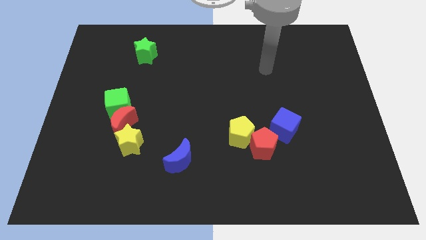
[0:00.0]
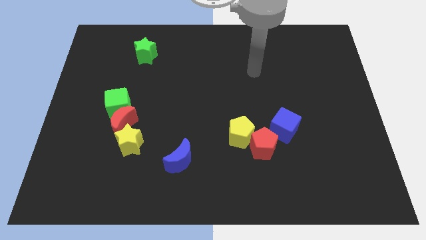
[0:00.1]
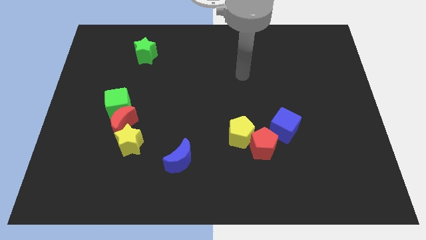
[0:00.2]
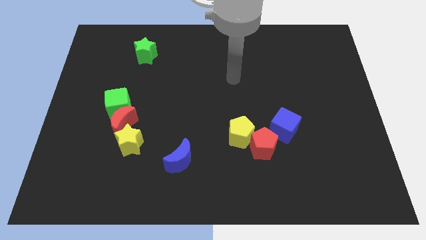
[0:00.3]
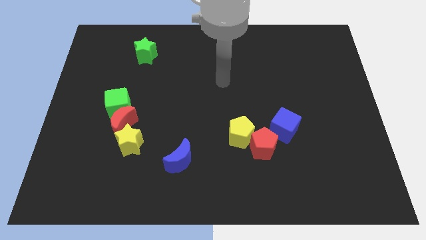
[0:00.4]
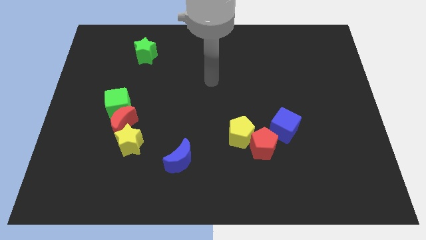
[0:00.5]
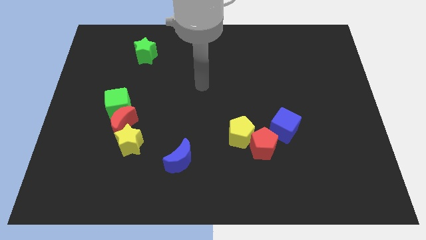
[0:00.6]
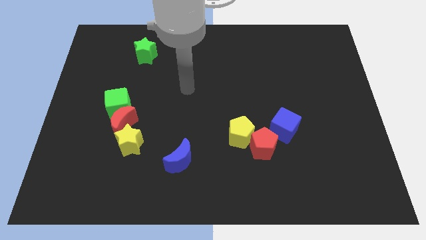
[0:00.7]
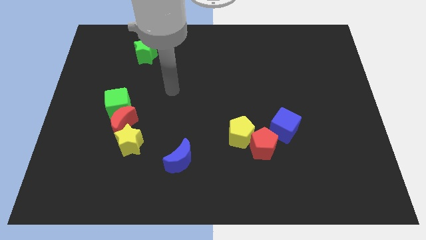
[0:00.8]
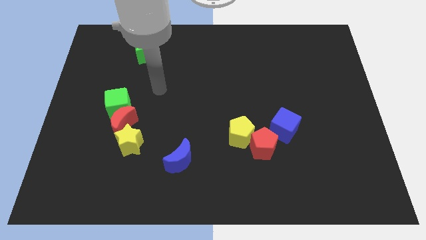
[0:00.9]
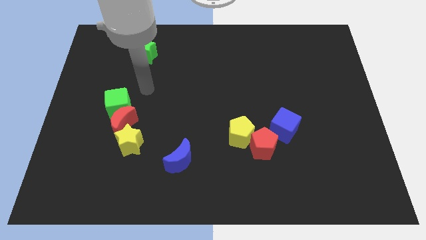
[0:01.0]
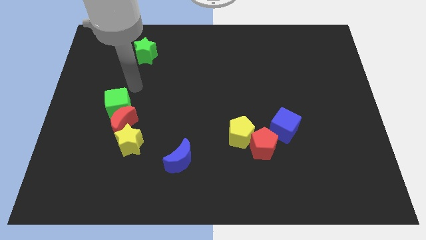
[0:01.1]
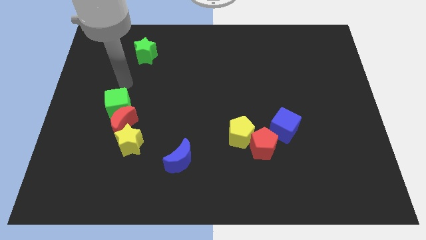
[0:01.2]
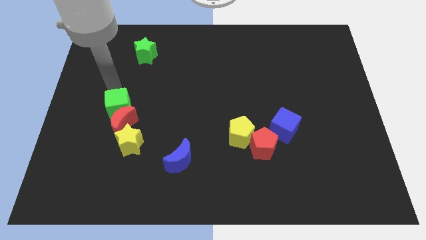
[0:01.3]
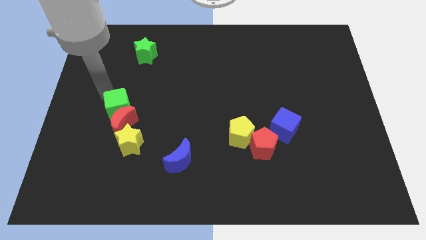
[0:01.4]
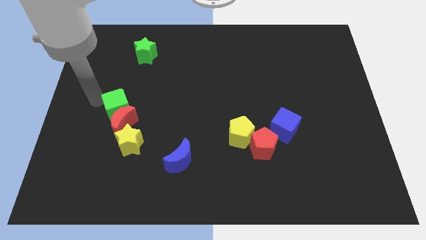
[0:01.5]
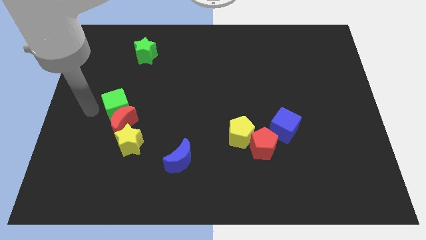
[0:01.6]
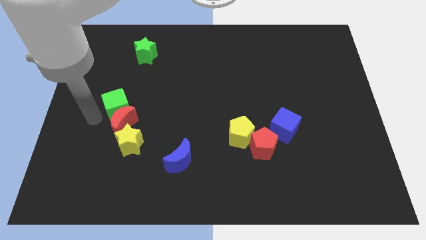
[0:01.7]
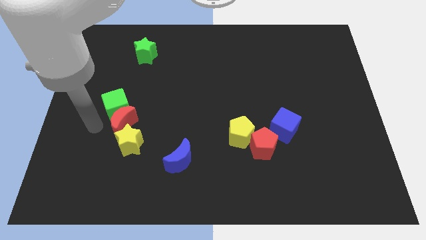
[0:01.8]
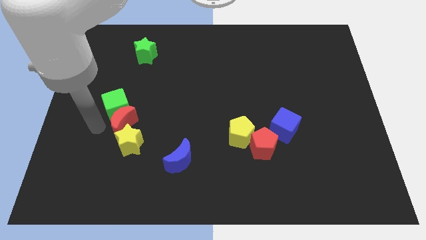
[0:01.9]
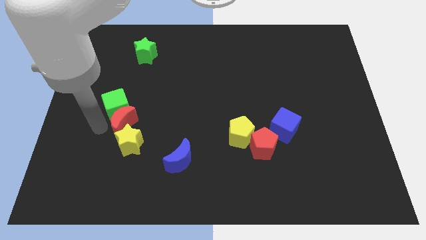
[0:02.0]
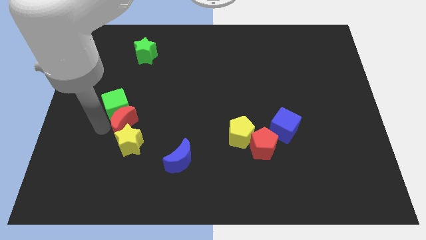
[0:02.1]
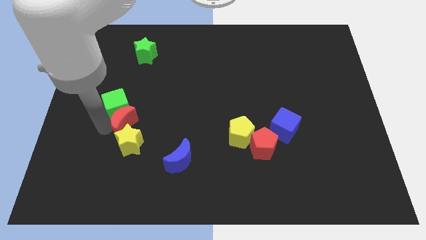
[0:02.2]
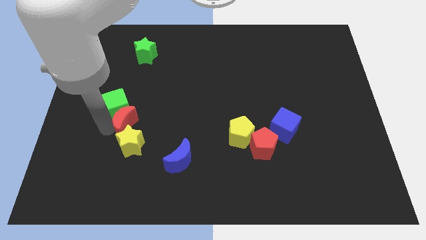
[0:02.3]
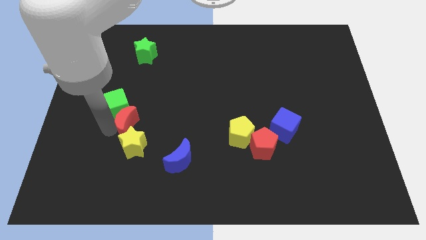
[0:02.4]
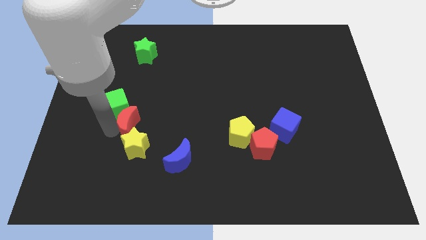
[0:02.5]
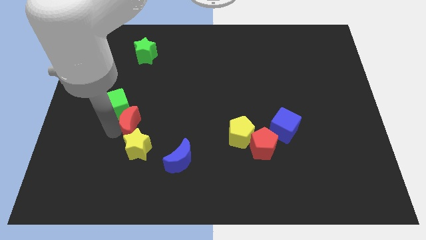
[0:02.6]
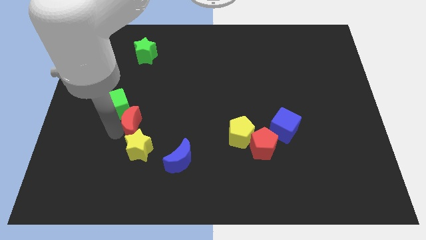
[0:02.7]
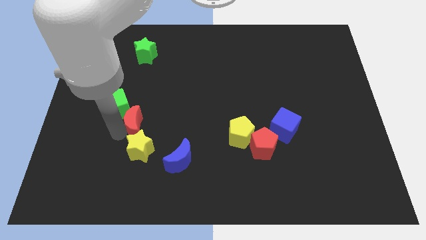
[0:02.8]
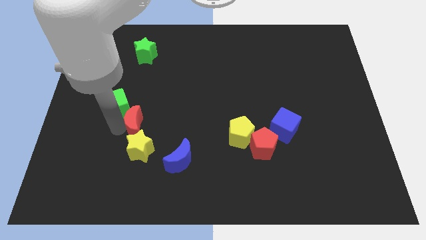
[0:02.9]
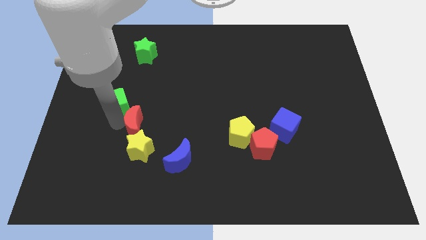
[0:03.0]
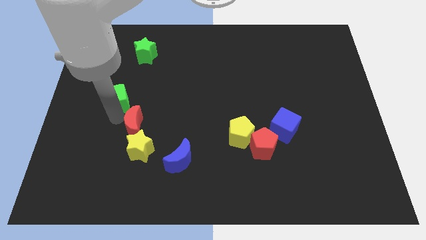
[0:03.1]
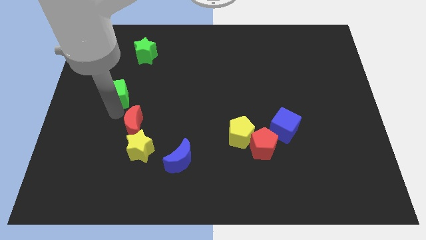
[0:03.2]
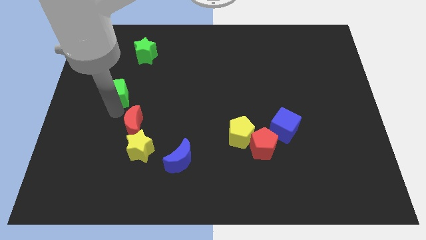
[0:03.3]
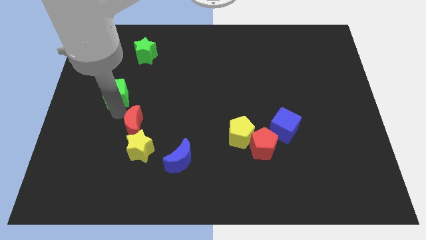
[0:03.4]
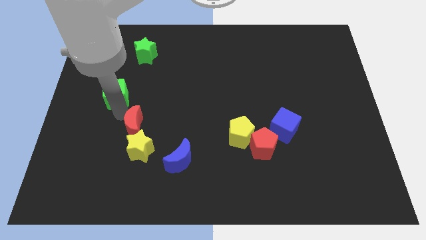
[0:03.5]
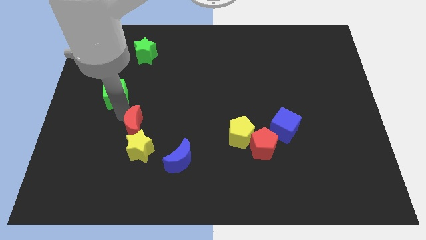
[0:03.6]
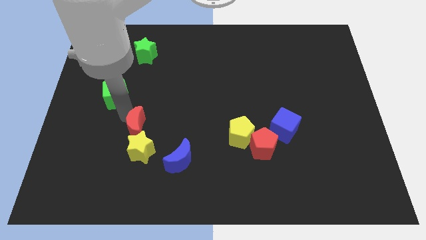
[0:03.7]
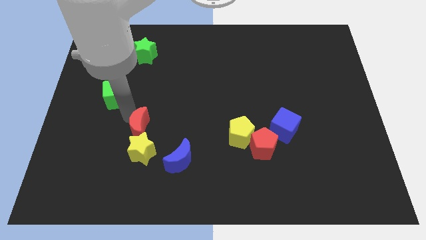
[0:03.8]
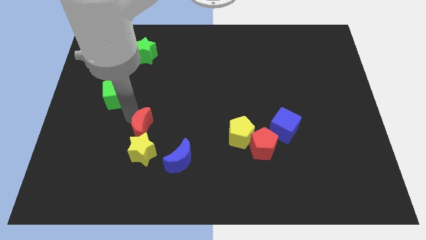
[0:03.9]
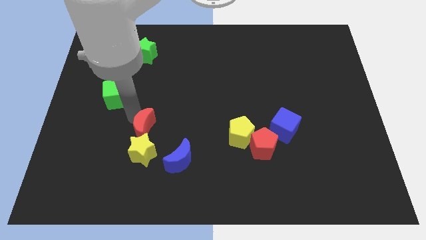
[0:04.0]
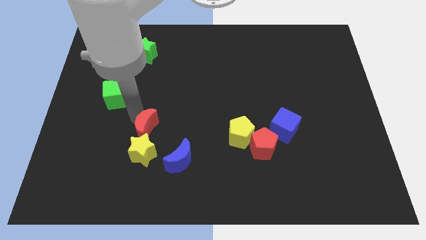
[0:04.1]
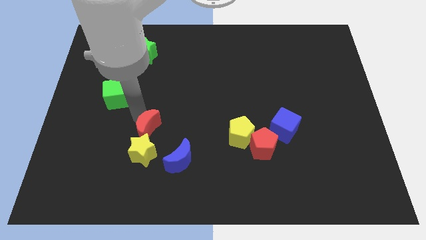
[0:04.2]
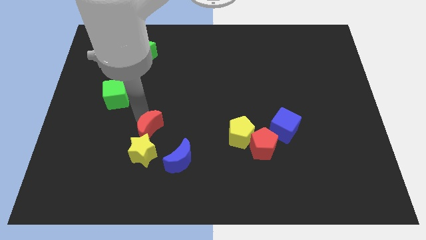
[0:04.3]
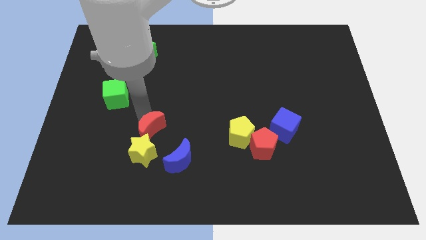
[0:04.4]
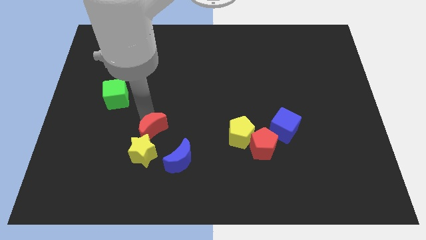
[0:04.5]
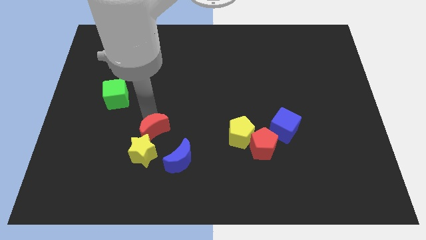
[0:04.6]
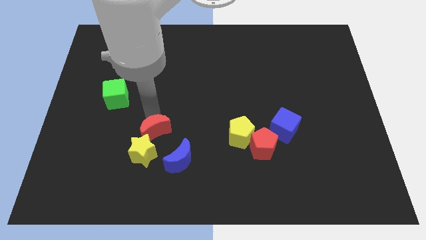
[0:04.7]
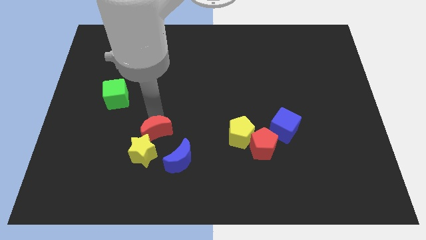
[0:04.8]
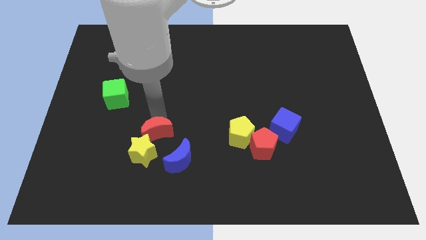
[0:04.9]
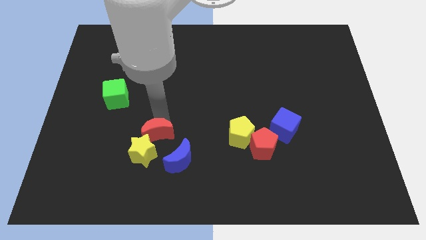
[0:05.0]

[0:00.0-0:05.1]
push the red moon diagonally down and right slightly

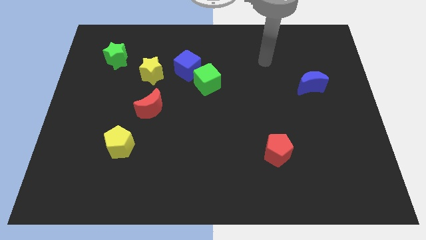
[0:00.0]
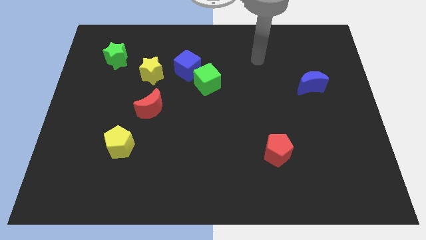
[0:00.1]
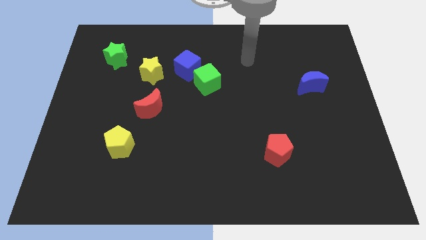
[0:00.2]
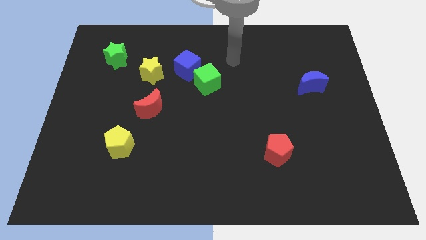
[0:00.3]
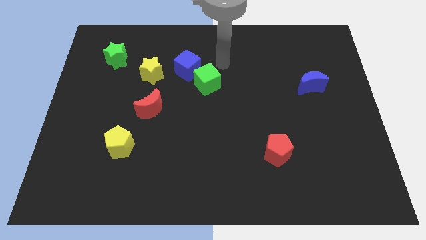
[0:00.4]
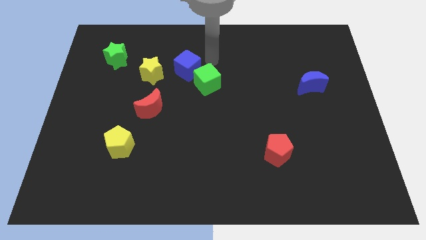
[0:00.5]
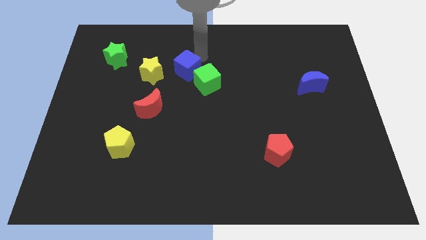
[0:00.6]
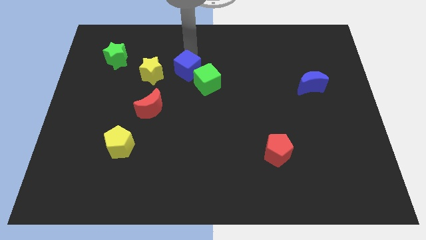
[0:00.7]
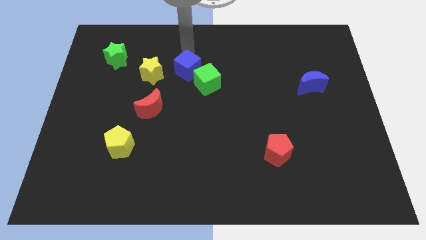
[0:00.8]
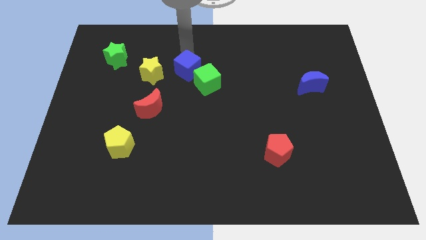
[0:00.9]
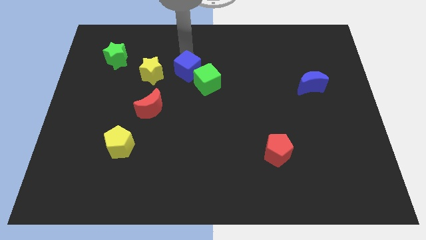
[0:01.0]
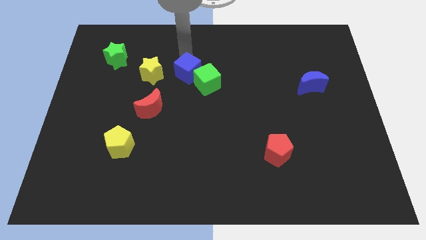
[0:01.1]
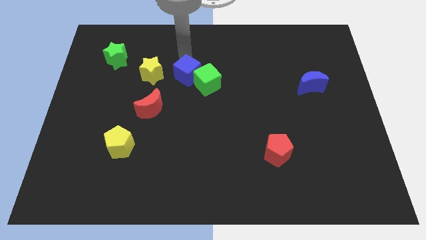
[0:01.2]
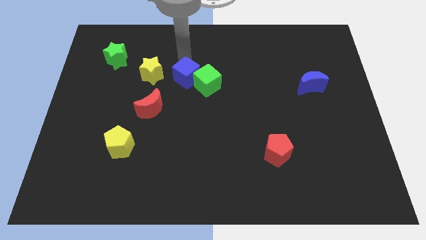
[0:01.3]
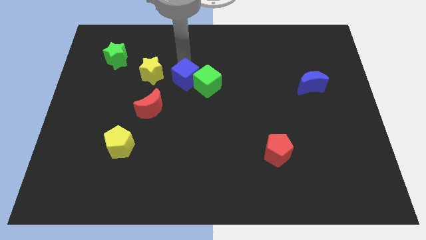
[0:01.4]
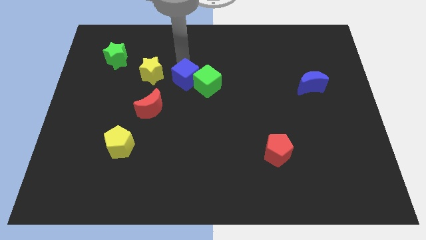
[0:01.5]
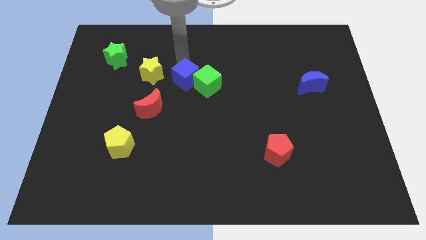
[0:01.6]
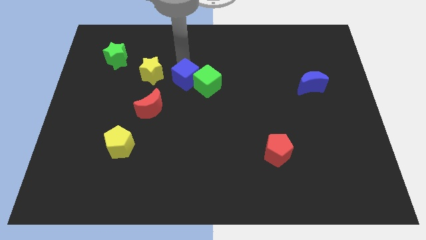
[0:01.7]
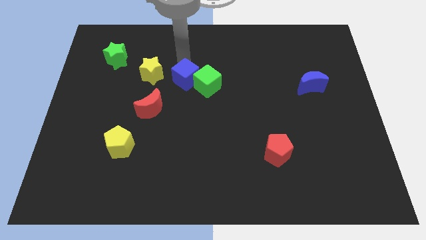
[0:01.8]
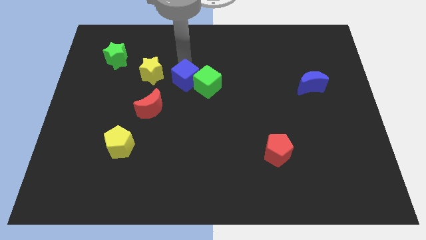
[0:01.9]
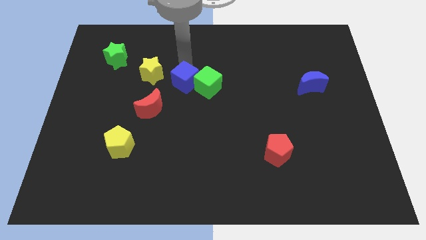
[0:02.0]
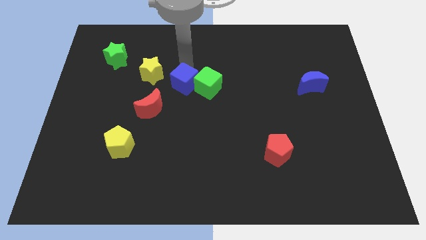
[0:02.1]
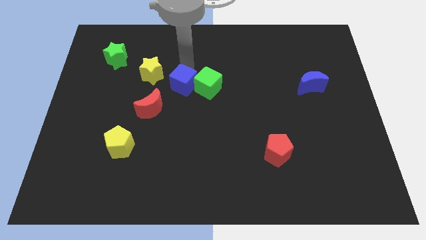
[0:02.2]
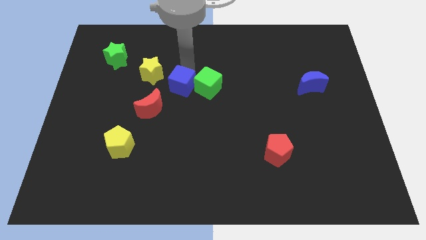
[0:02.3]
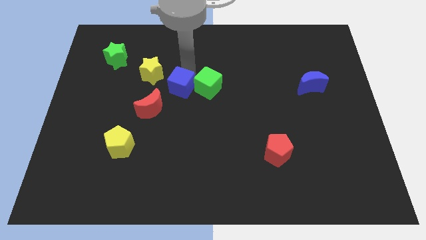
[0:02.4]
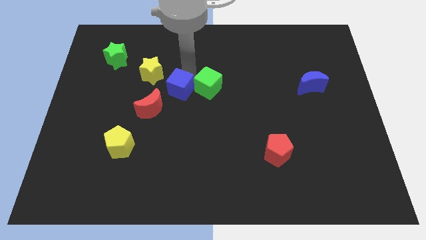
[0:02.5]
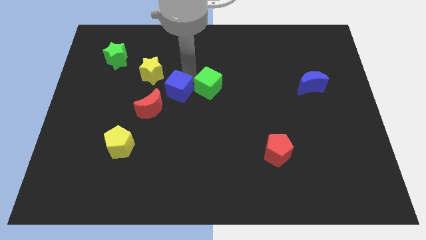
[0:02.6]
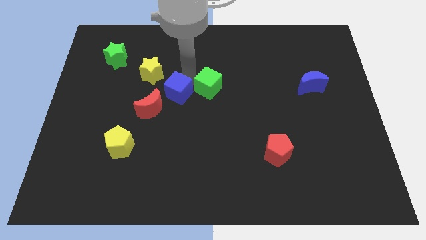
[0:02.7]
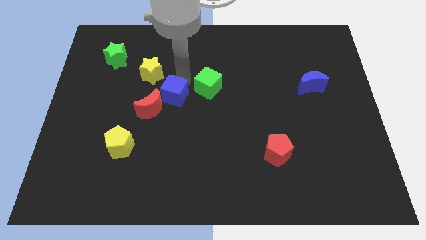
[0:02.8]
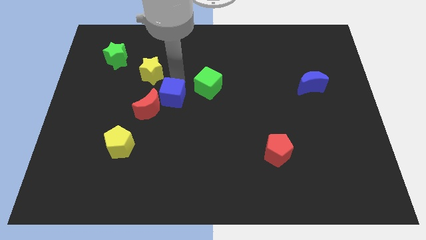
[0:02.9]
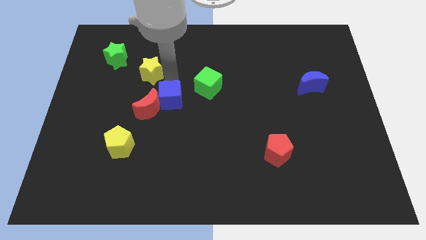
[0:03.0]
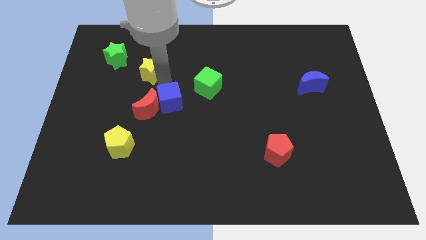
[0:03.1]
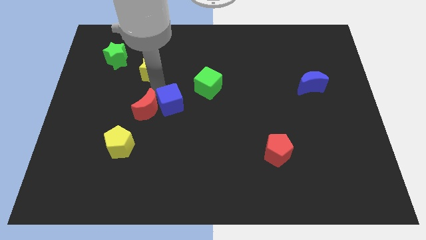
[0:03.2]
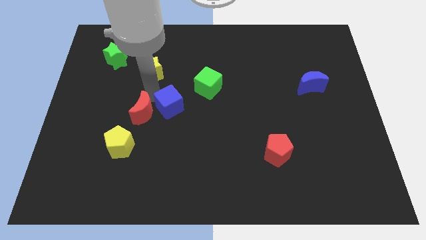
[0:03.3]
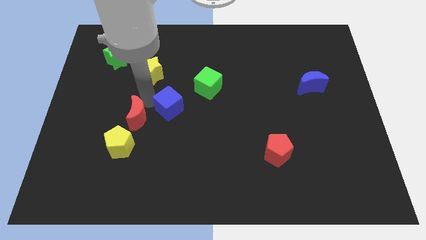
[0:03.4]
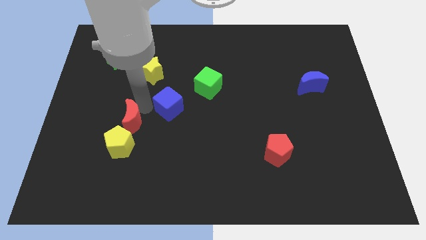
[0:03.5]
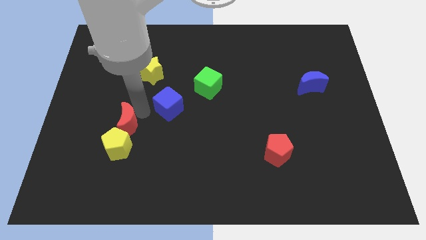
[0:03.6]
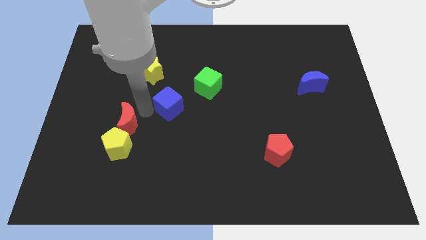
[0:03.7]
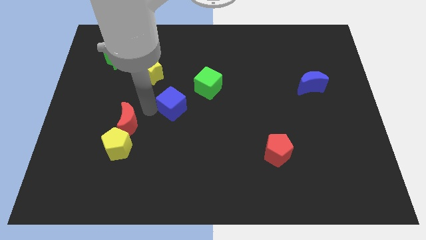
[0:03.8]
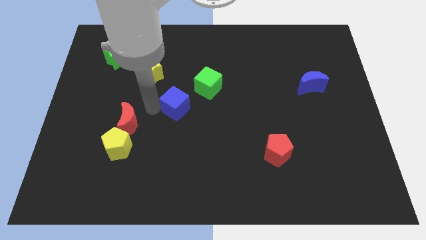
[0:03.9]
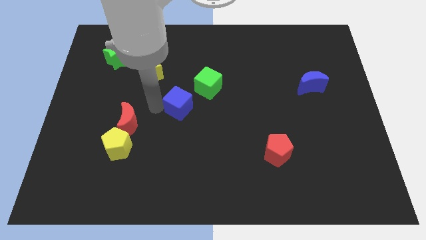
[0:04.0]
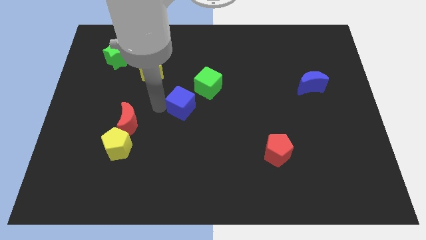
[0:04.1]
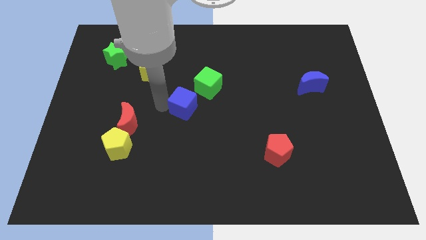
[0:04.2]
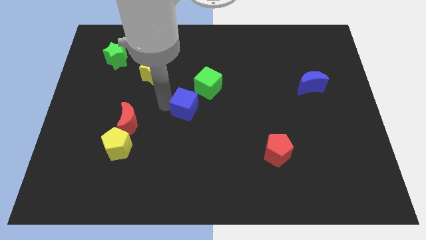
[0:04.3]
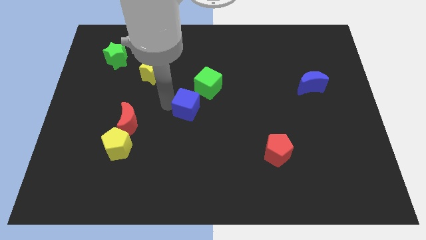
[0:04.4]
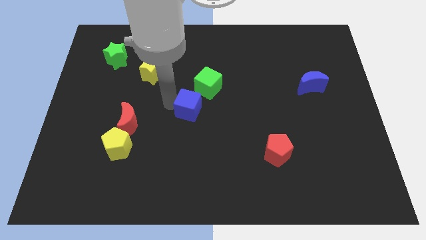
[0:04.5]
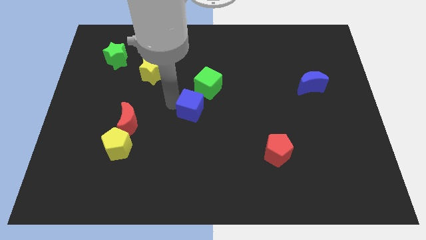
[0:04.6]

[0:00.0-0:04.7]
push the blue cube somewhat diagonally down and right
